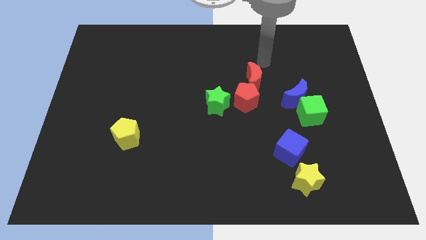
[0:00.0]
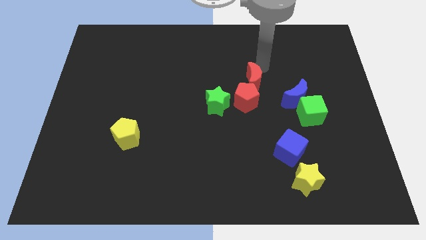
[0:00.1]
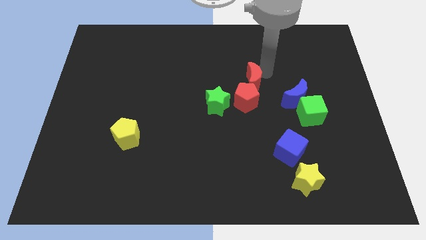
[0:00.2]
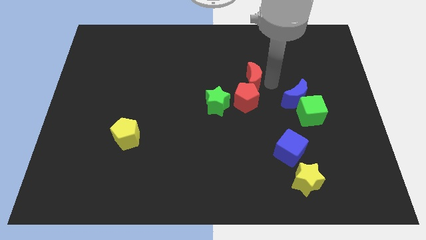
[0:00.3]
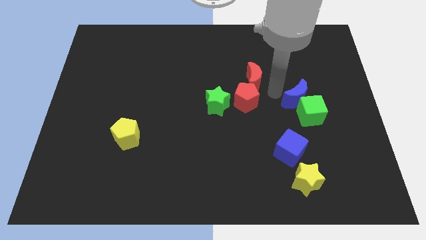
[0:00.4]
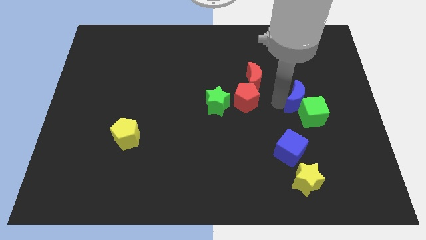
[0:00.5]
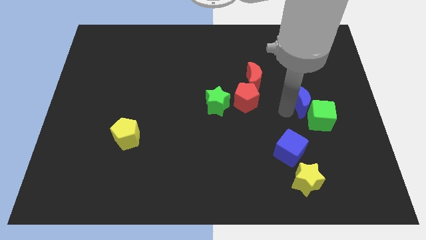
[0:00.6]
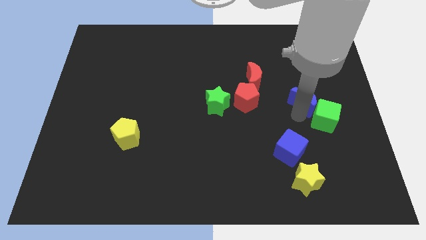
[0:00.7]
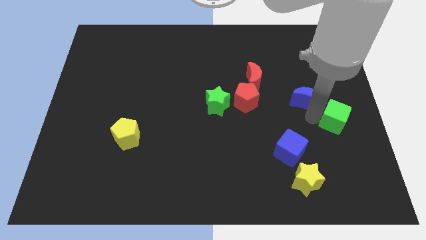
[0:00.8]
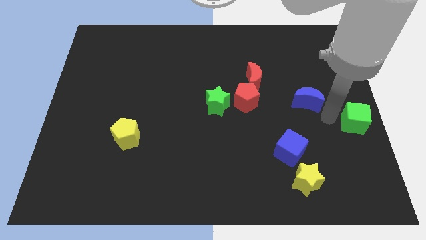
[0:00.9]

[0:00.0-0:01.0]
separate the blue moon from the green cube

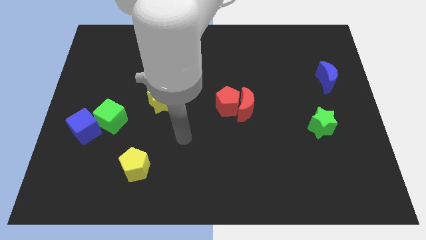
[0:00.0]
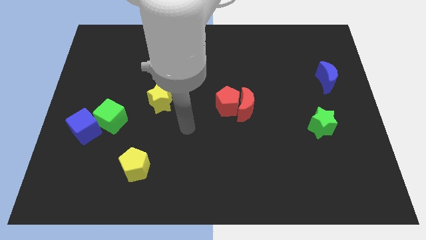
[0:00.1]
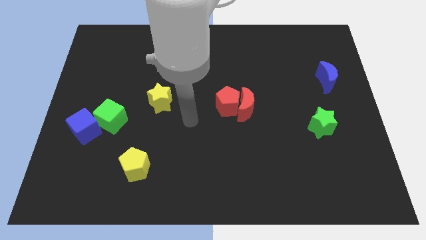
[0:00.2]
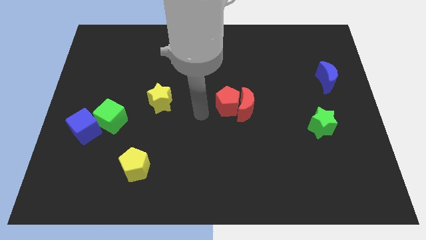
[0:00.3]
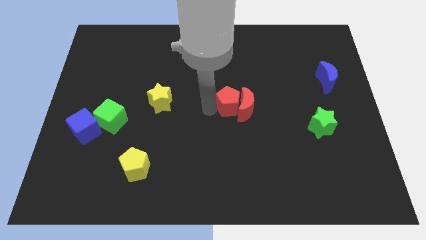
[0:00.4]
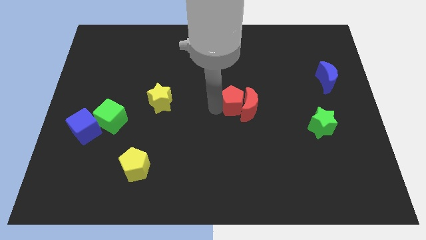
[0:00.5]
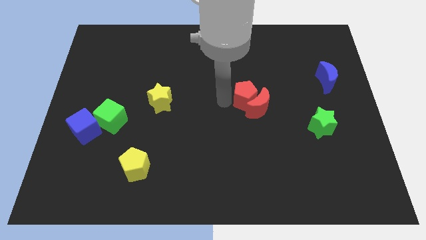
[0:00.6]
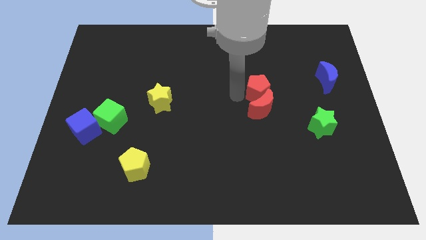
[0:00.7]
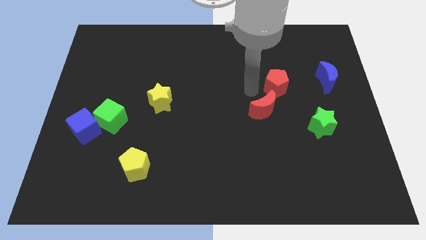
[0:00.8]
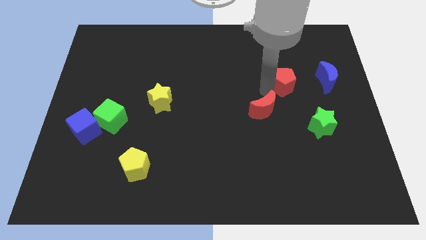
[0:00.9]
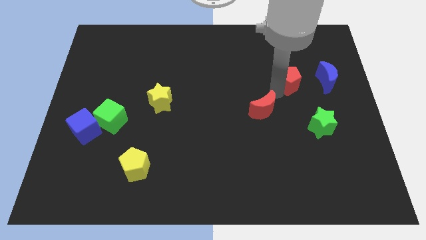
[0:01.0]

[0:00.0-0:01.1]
separate the red moon from the red pentagon

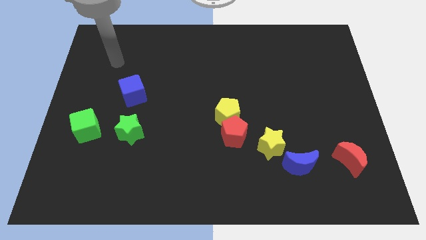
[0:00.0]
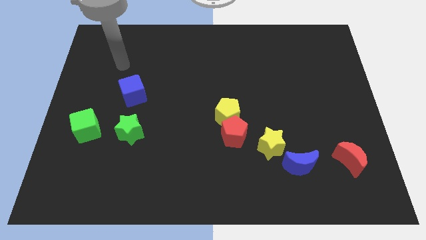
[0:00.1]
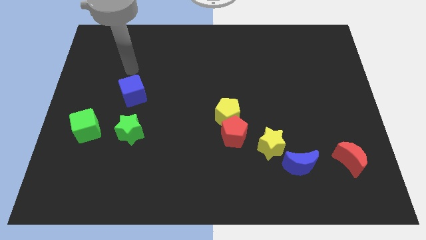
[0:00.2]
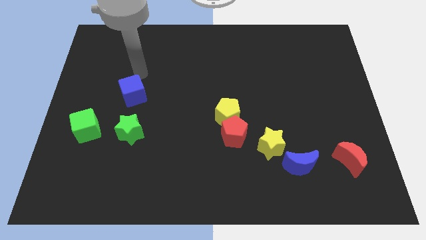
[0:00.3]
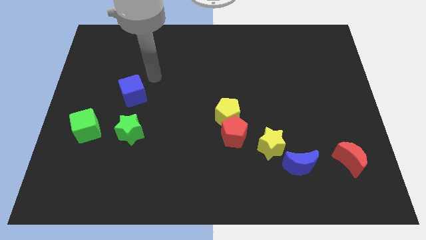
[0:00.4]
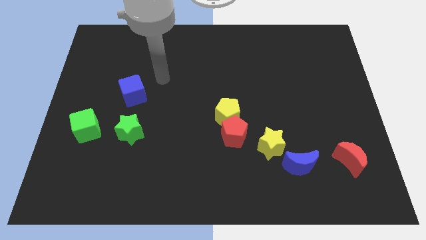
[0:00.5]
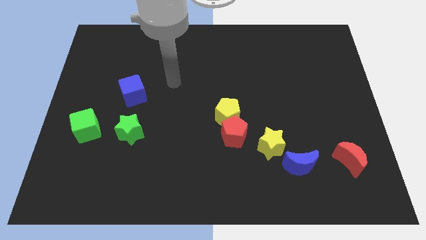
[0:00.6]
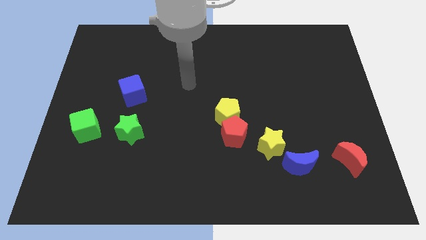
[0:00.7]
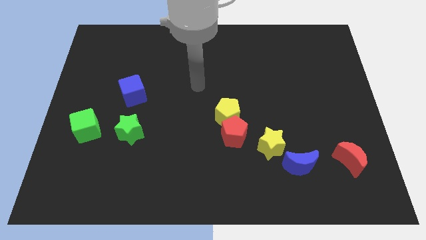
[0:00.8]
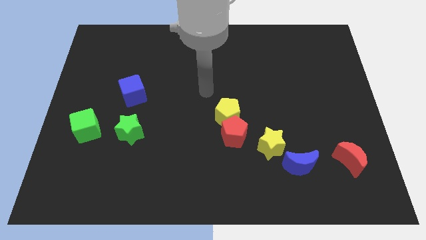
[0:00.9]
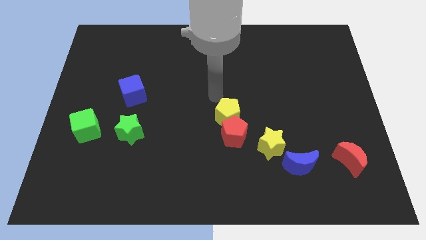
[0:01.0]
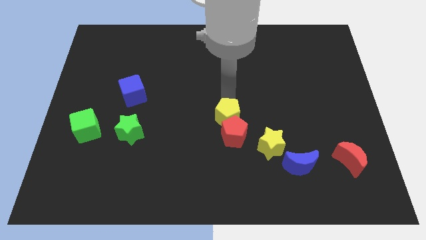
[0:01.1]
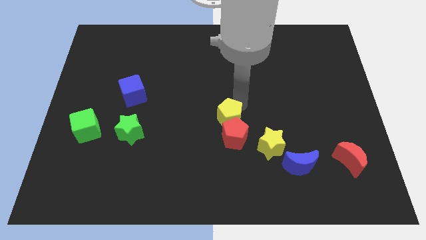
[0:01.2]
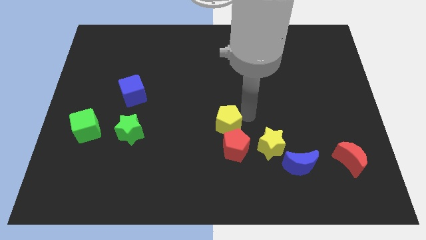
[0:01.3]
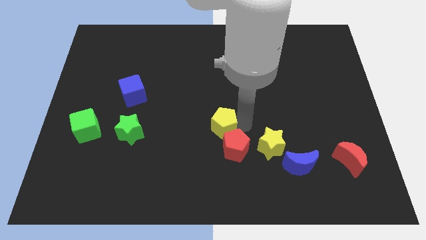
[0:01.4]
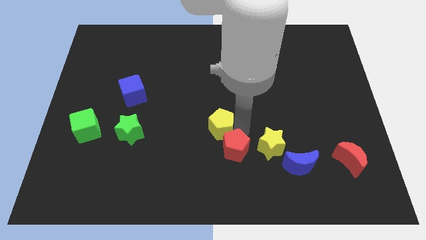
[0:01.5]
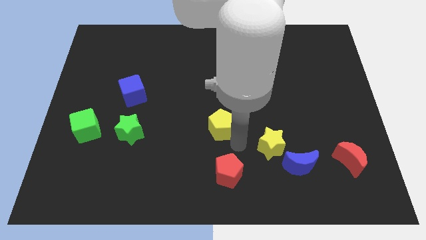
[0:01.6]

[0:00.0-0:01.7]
separate the yellow pentagon from the red pentagon

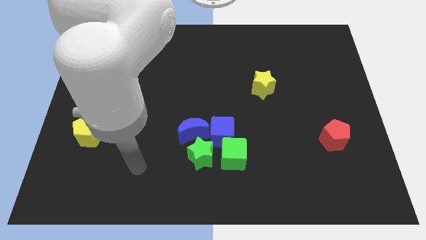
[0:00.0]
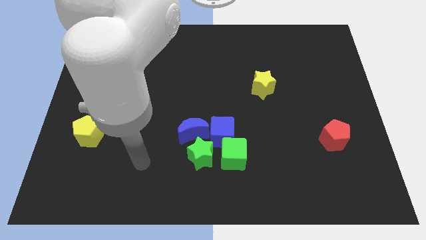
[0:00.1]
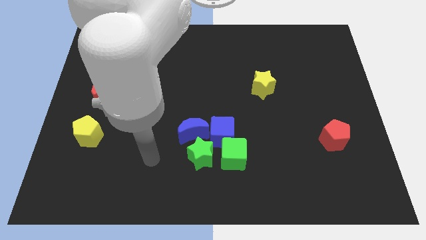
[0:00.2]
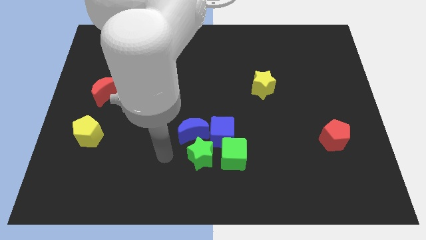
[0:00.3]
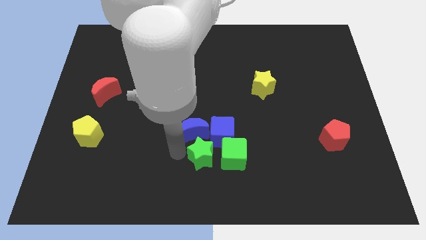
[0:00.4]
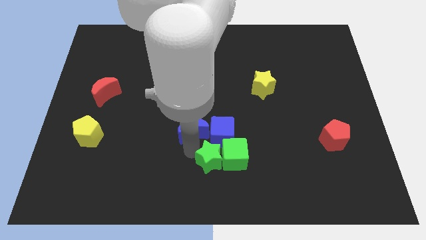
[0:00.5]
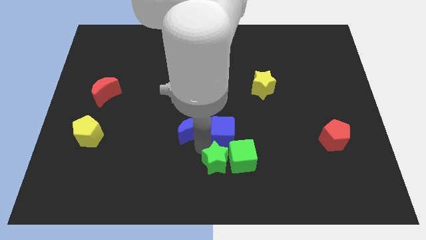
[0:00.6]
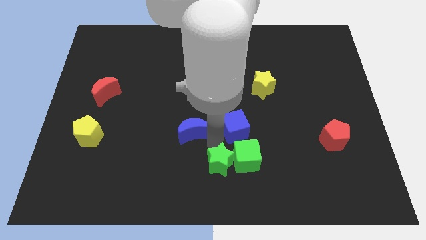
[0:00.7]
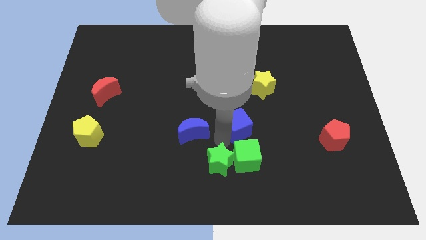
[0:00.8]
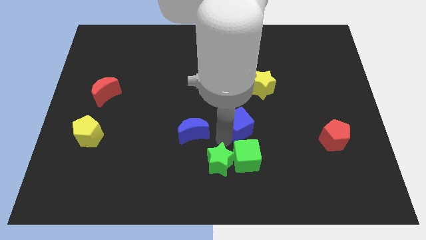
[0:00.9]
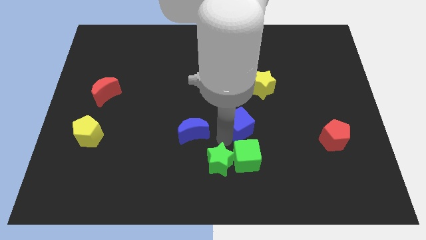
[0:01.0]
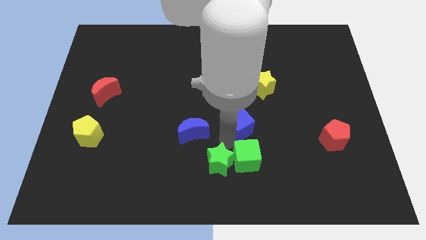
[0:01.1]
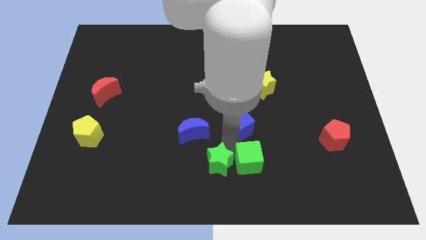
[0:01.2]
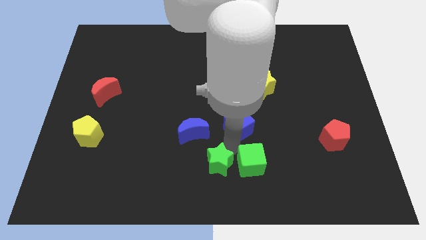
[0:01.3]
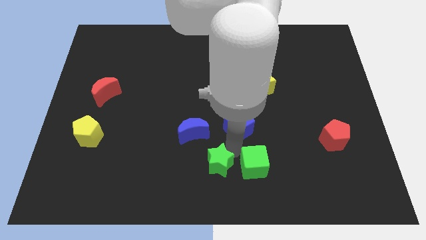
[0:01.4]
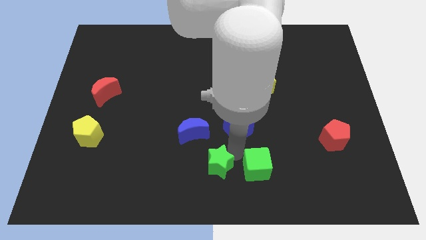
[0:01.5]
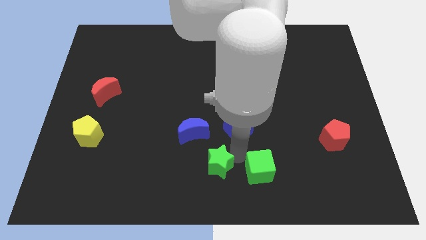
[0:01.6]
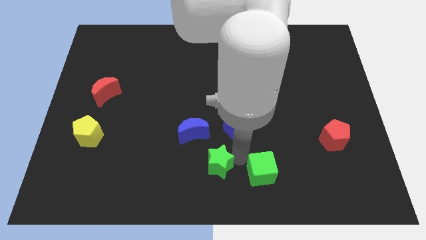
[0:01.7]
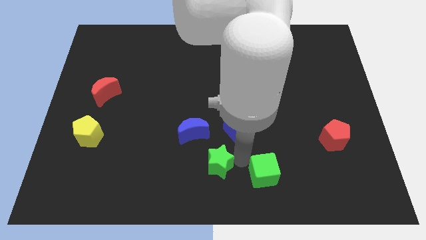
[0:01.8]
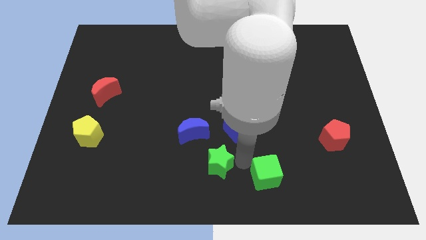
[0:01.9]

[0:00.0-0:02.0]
move the green cube away from the blue cube and green star

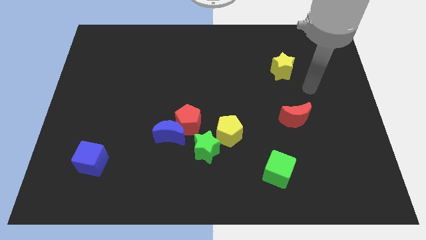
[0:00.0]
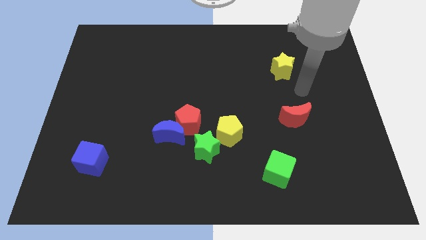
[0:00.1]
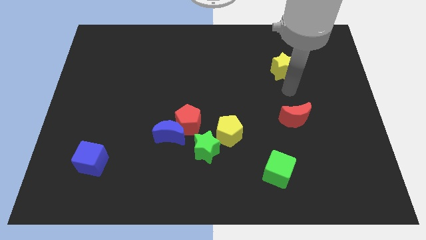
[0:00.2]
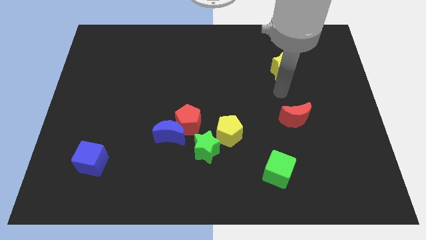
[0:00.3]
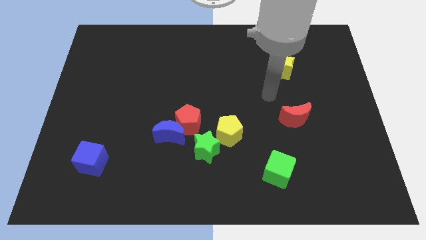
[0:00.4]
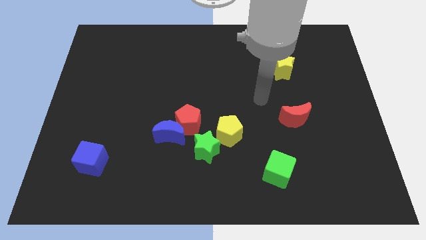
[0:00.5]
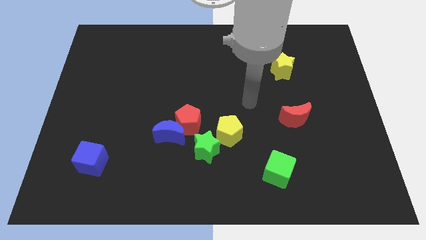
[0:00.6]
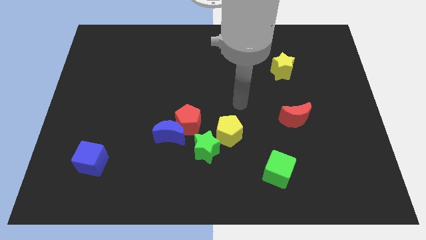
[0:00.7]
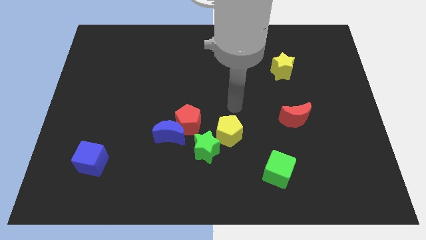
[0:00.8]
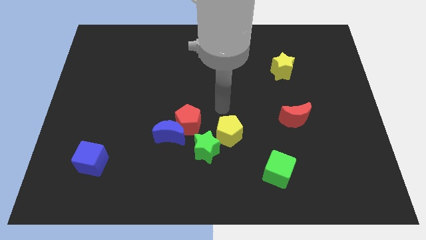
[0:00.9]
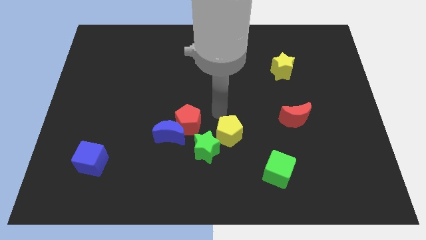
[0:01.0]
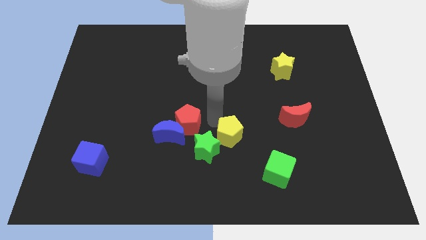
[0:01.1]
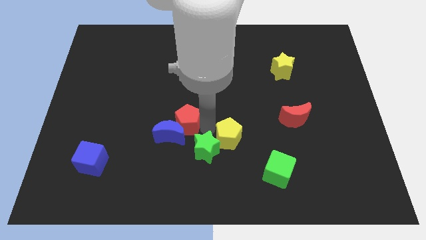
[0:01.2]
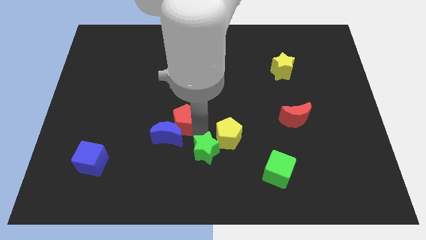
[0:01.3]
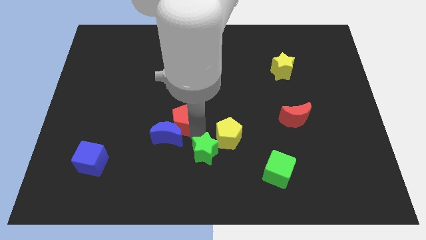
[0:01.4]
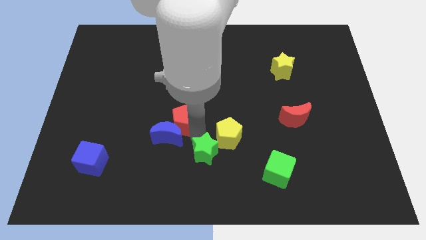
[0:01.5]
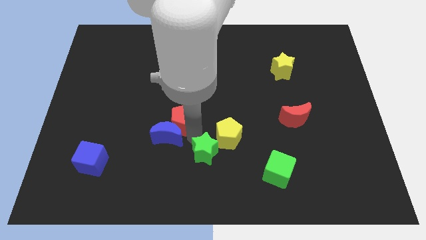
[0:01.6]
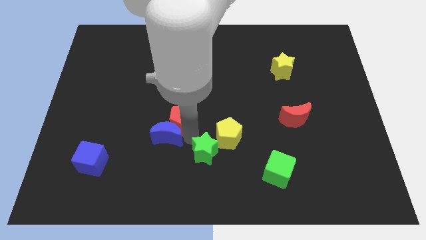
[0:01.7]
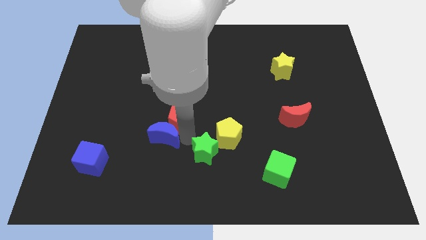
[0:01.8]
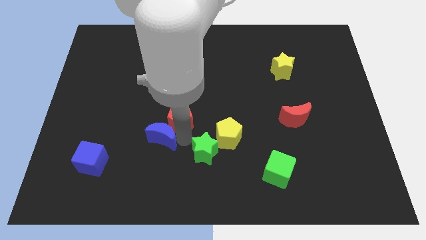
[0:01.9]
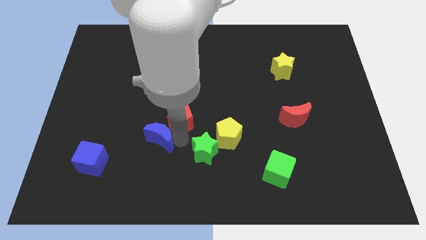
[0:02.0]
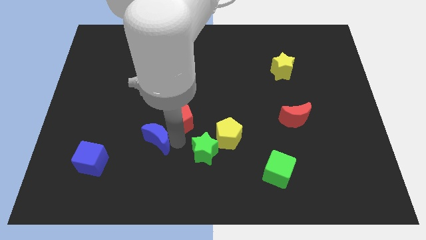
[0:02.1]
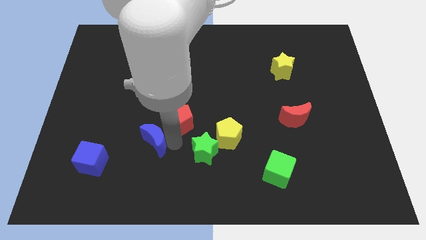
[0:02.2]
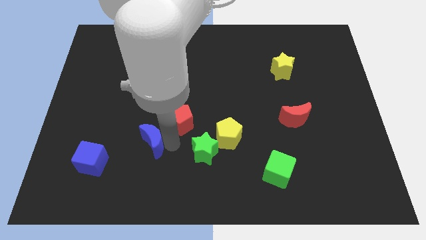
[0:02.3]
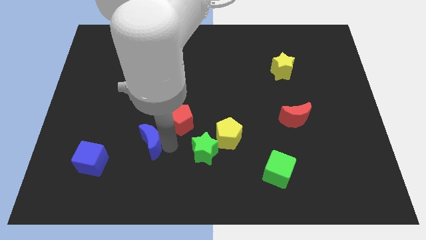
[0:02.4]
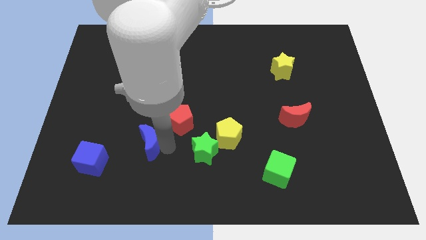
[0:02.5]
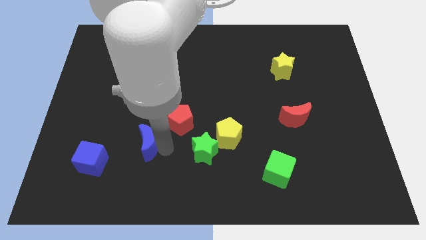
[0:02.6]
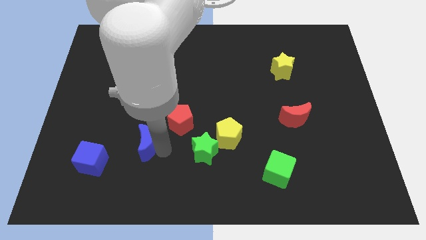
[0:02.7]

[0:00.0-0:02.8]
separate the blue moon from the red pentagon and green star

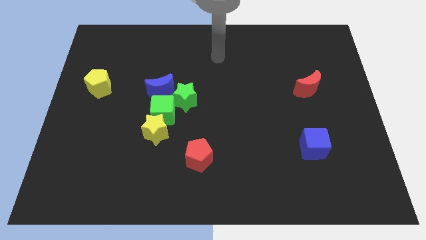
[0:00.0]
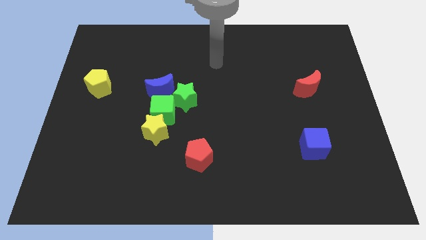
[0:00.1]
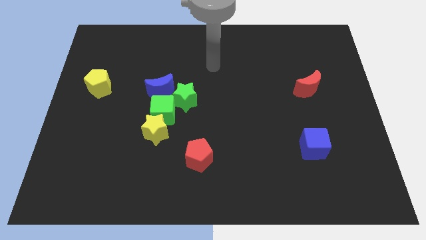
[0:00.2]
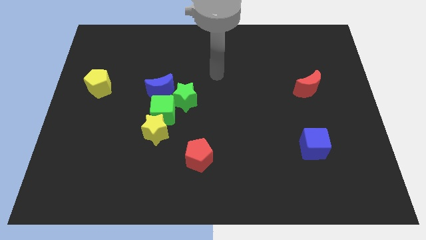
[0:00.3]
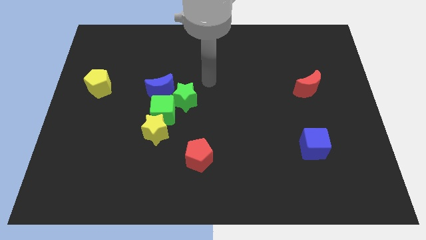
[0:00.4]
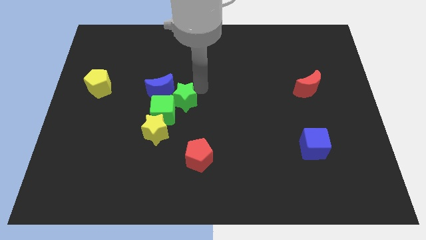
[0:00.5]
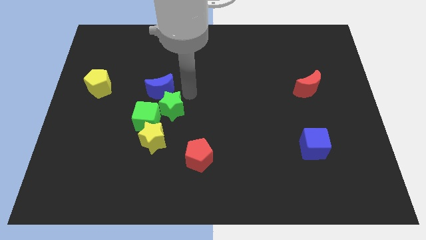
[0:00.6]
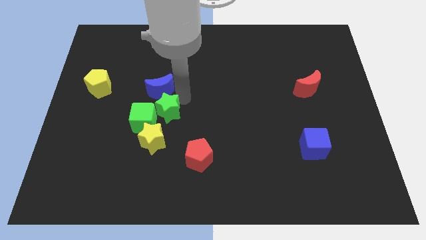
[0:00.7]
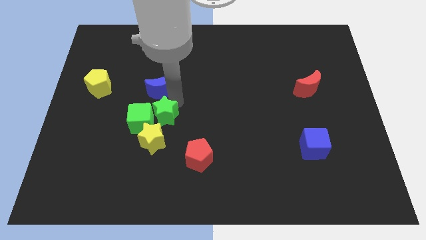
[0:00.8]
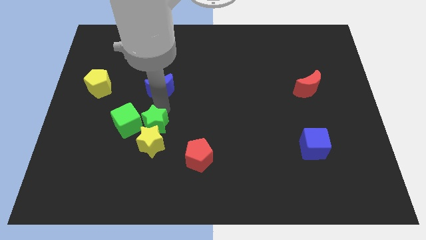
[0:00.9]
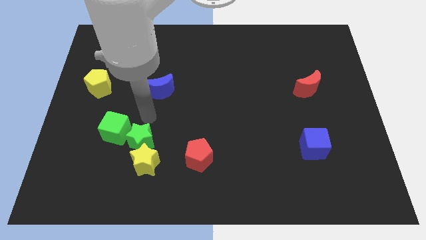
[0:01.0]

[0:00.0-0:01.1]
move the yellow star away from the green cube
